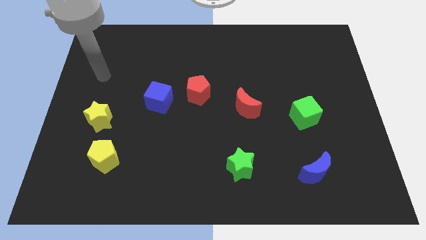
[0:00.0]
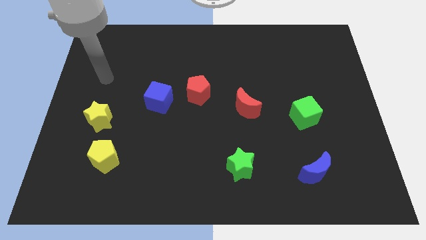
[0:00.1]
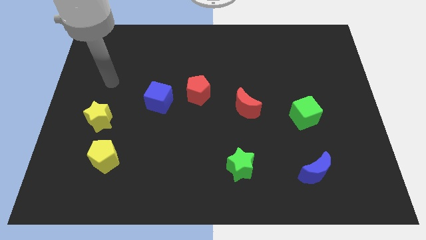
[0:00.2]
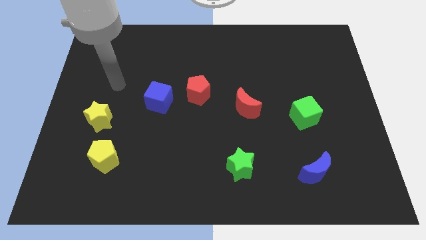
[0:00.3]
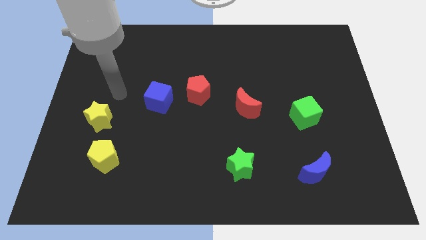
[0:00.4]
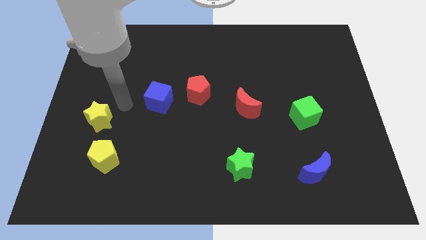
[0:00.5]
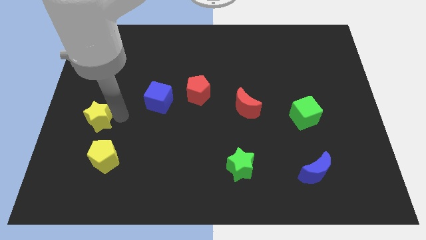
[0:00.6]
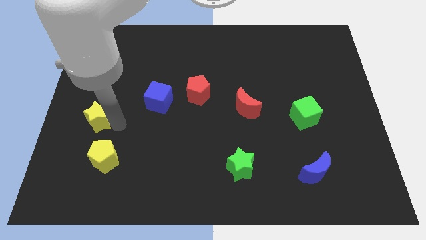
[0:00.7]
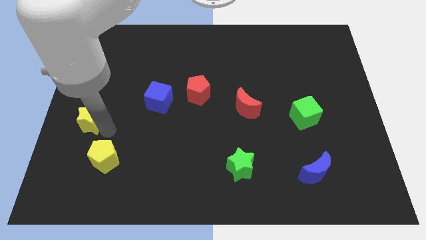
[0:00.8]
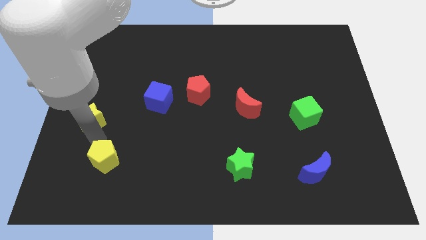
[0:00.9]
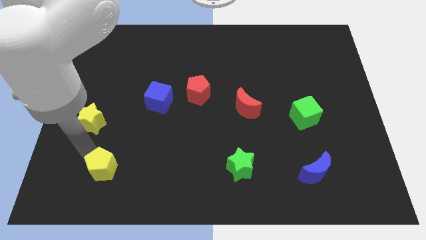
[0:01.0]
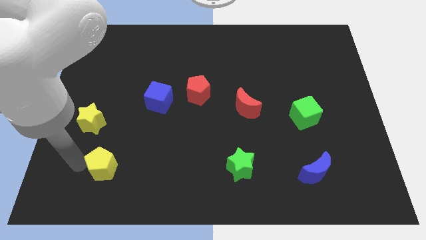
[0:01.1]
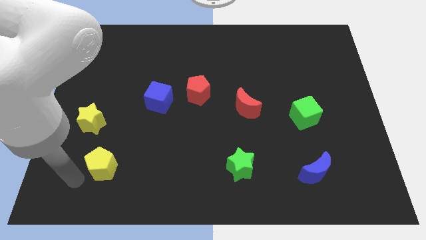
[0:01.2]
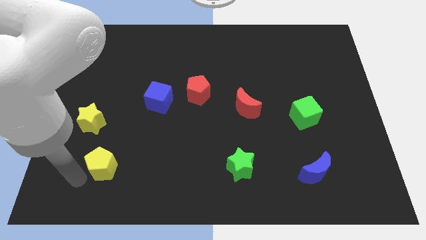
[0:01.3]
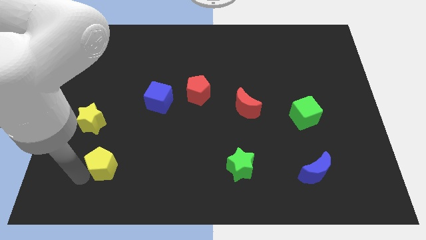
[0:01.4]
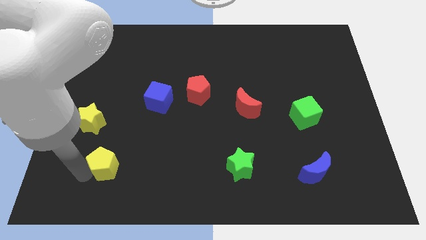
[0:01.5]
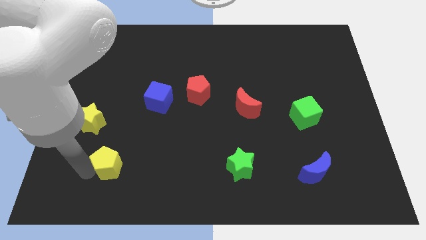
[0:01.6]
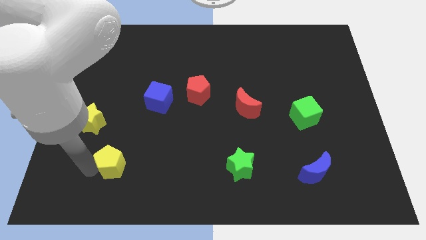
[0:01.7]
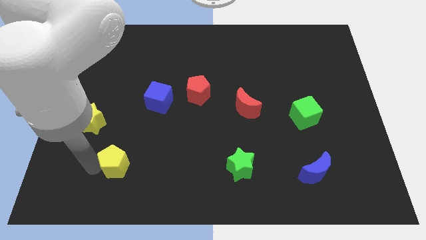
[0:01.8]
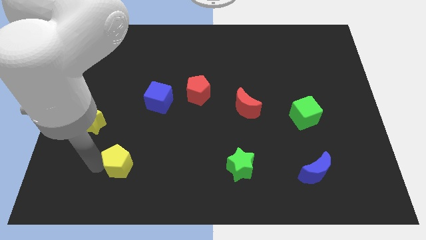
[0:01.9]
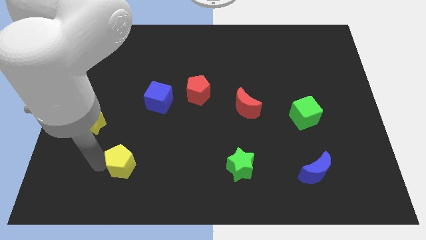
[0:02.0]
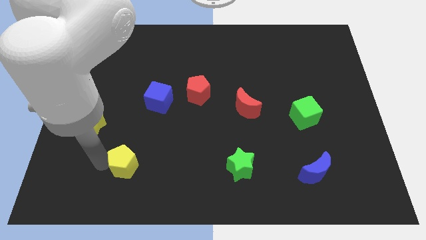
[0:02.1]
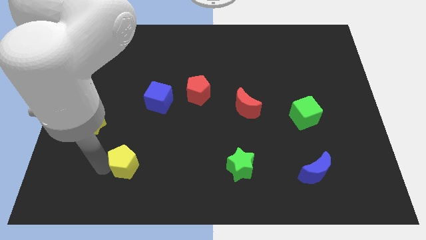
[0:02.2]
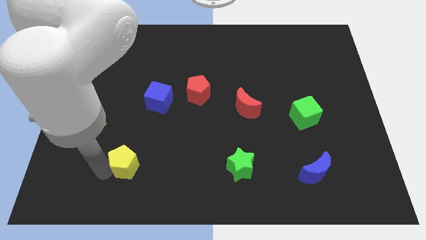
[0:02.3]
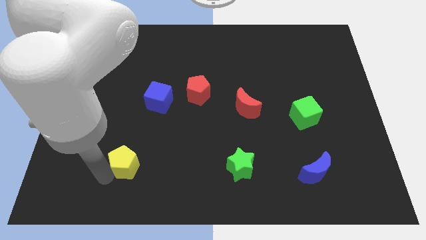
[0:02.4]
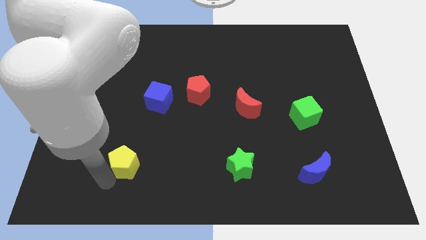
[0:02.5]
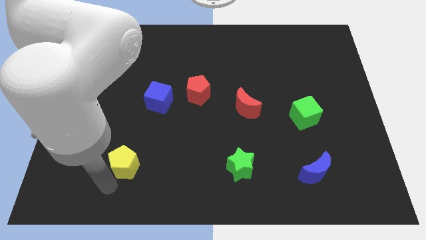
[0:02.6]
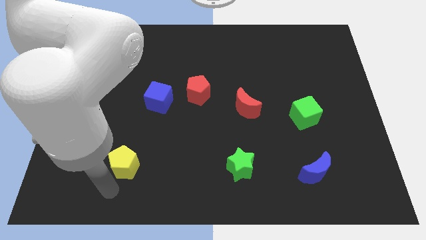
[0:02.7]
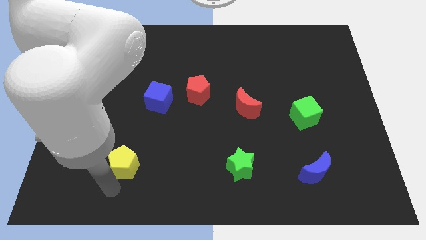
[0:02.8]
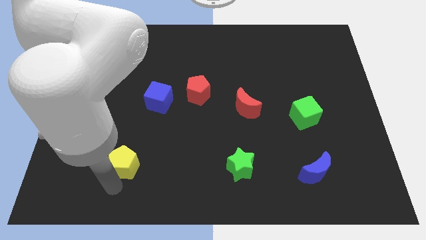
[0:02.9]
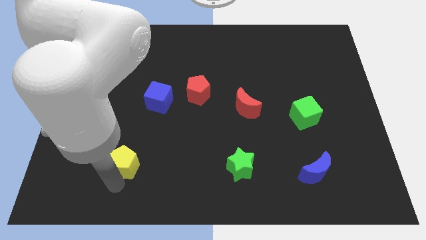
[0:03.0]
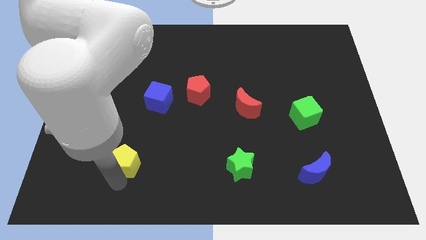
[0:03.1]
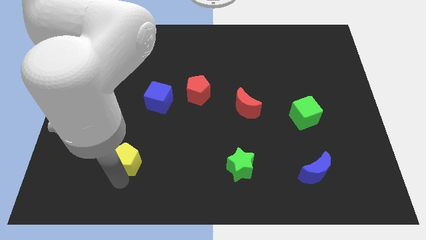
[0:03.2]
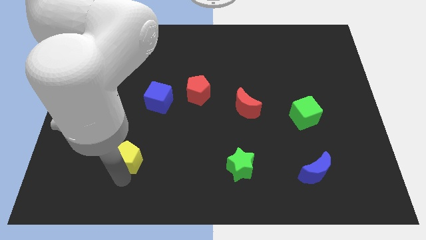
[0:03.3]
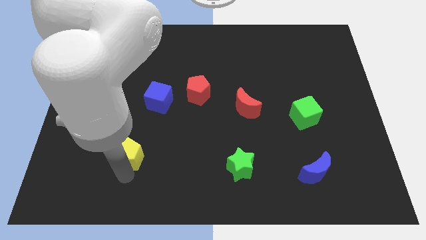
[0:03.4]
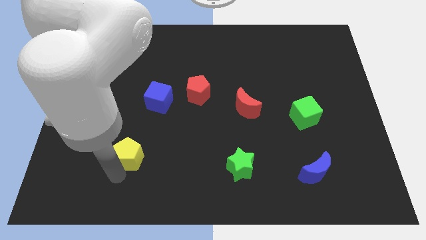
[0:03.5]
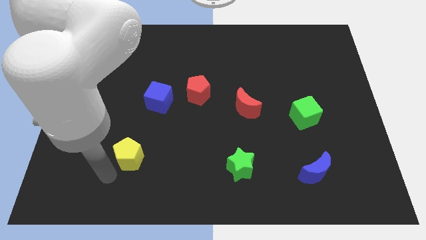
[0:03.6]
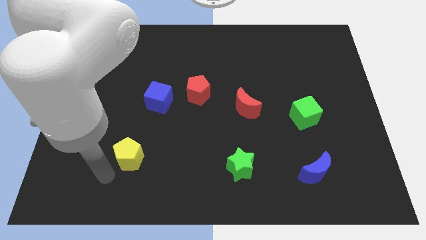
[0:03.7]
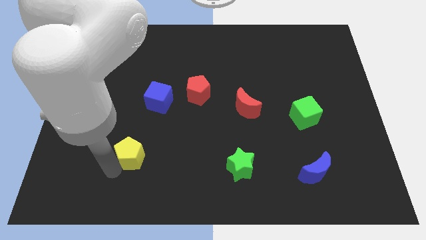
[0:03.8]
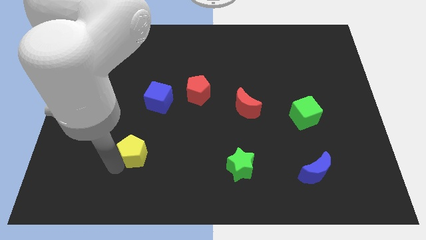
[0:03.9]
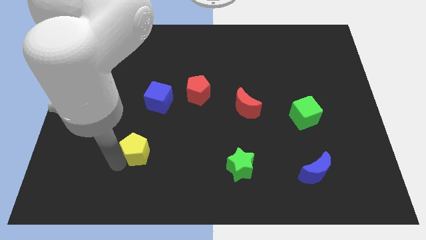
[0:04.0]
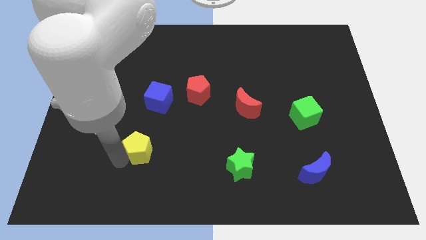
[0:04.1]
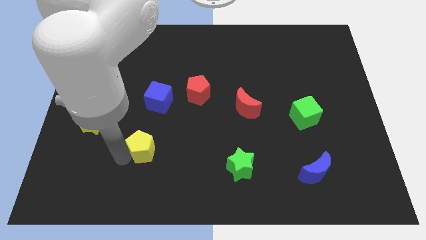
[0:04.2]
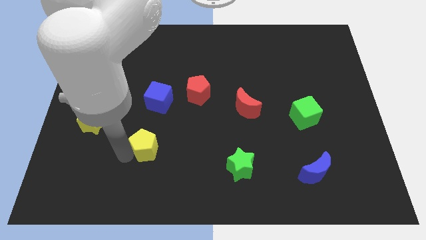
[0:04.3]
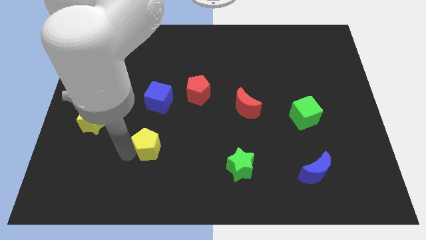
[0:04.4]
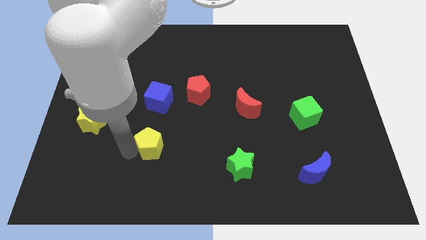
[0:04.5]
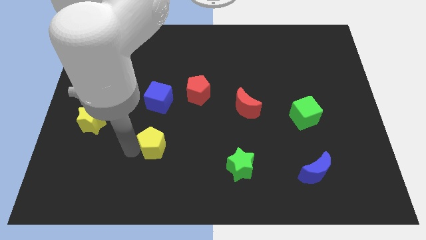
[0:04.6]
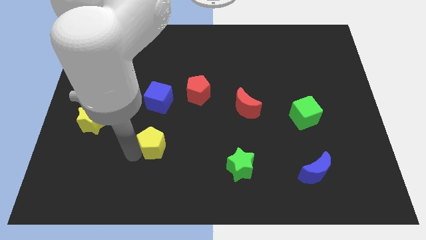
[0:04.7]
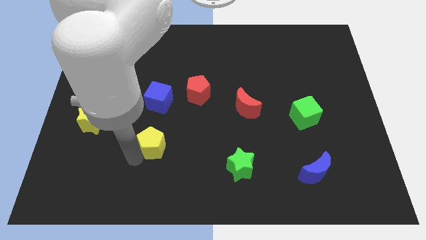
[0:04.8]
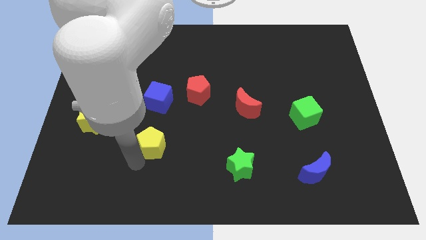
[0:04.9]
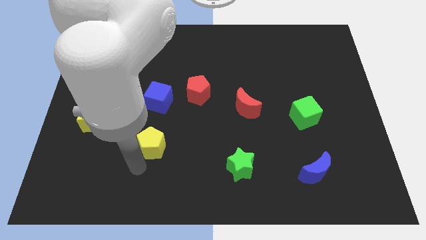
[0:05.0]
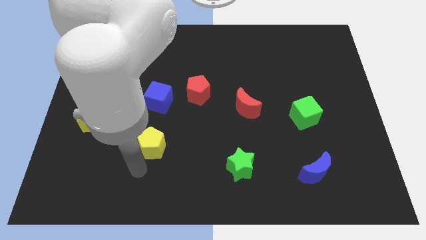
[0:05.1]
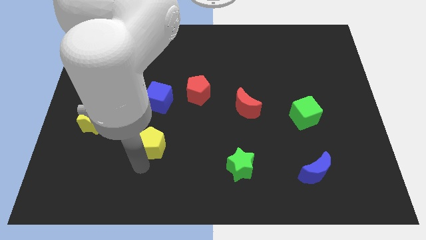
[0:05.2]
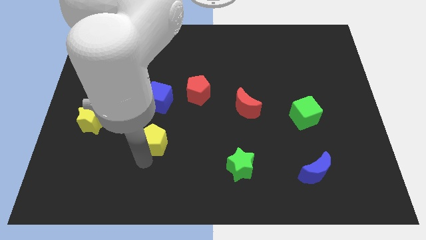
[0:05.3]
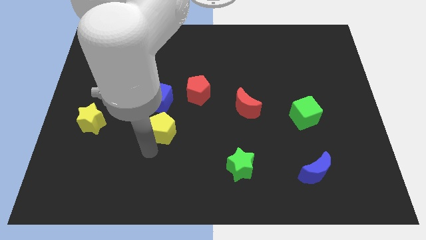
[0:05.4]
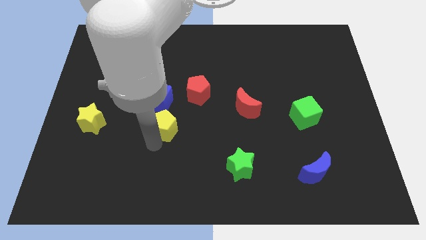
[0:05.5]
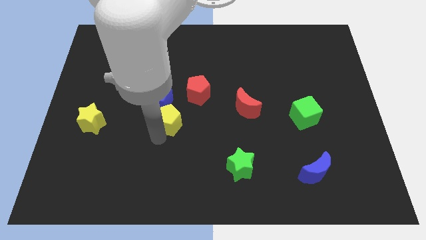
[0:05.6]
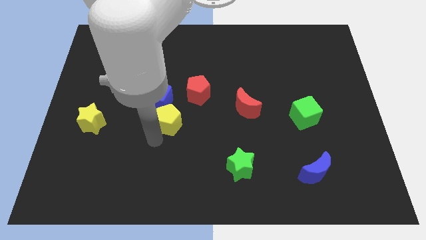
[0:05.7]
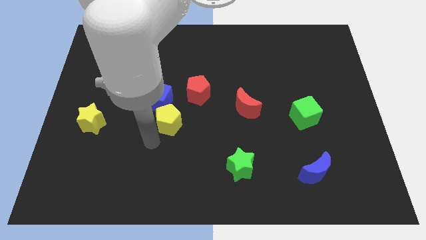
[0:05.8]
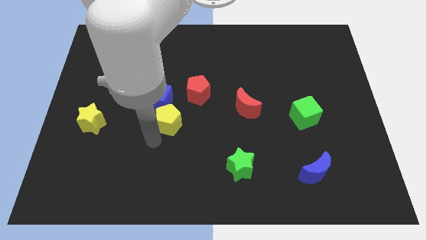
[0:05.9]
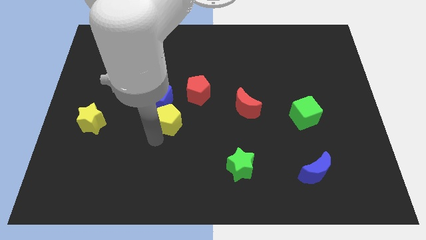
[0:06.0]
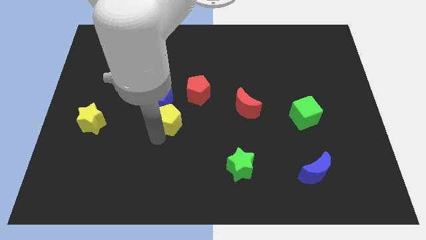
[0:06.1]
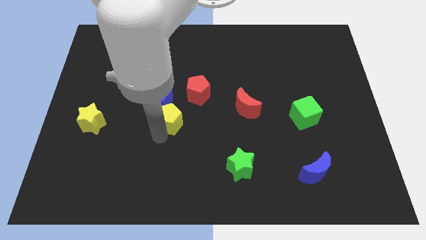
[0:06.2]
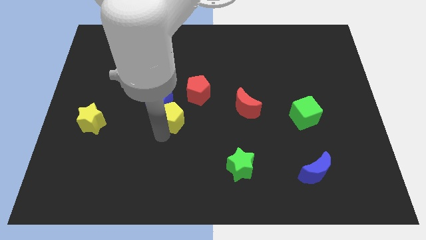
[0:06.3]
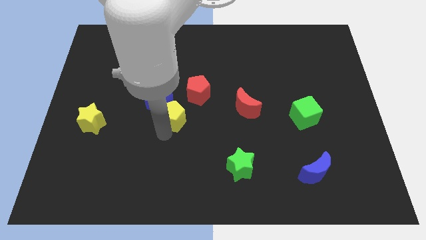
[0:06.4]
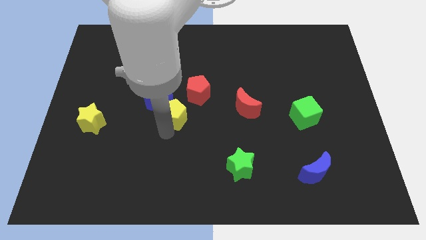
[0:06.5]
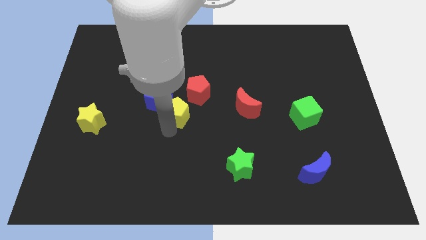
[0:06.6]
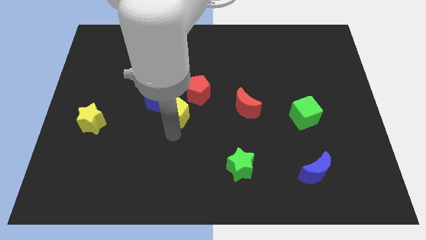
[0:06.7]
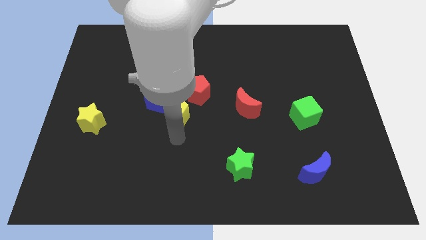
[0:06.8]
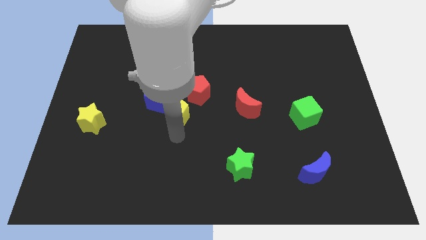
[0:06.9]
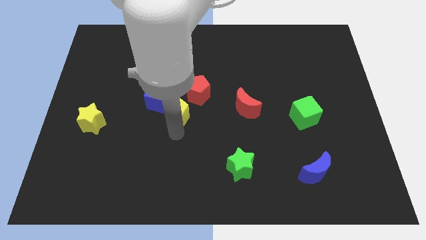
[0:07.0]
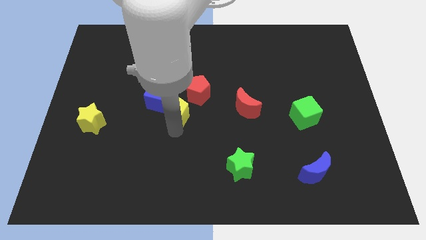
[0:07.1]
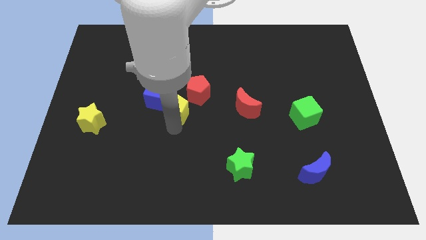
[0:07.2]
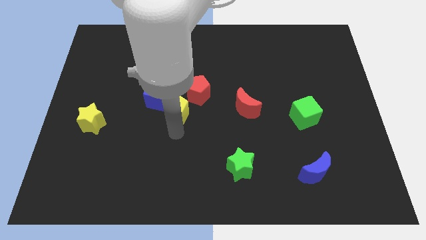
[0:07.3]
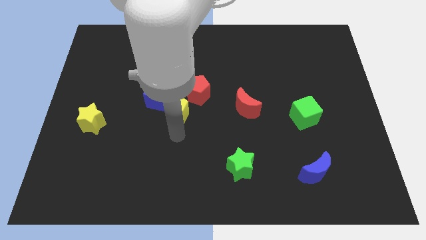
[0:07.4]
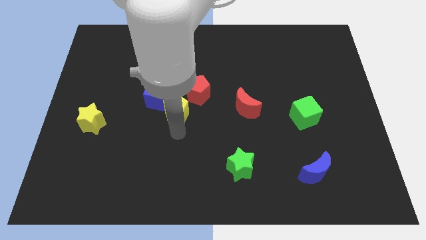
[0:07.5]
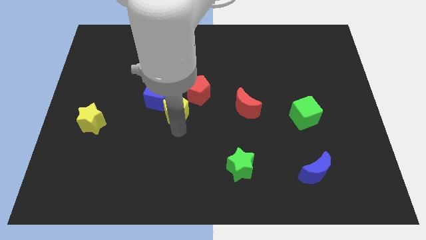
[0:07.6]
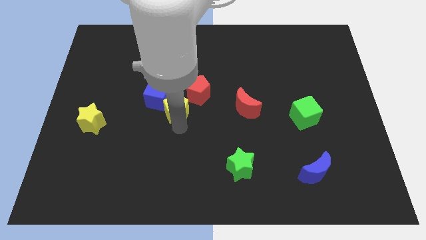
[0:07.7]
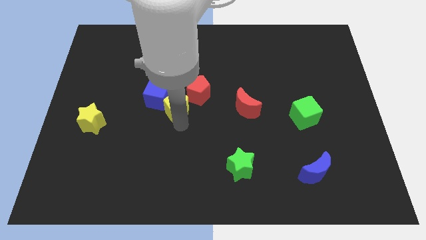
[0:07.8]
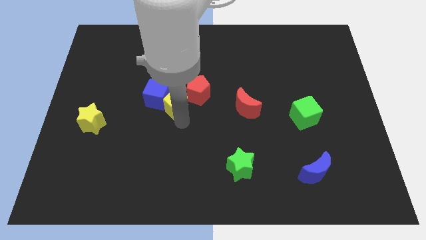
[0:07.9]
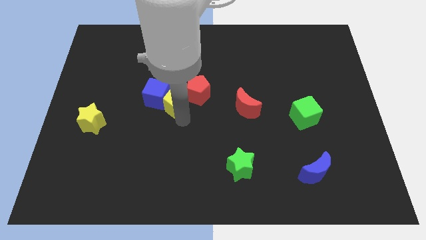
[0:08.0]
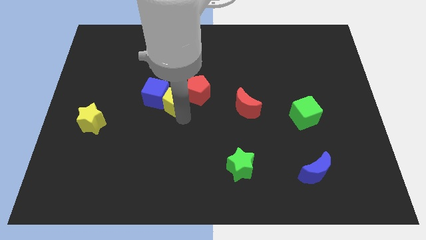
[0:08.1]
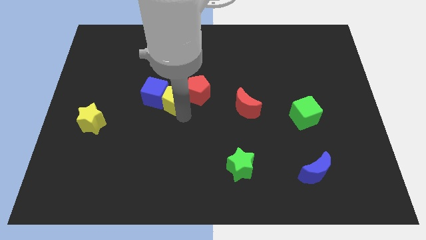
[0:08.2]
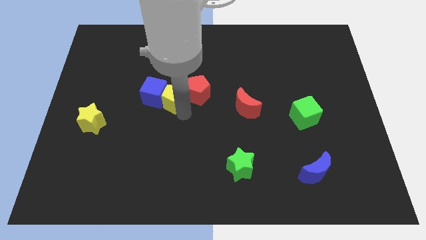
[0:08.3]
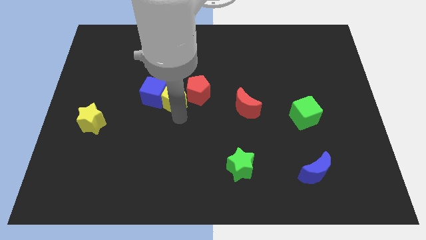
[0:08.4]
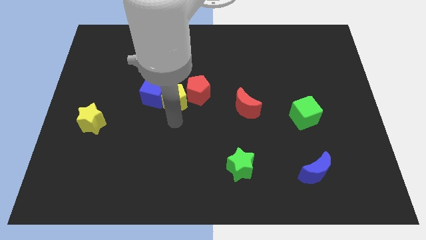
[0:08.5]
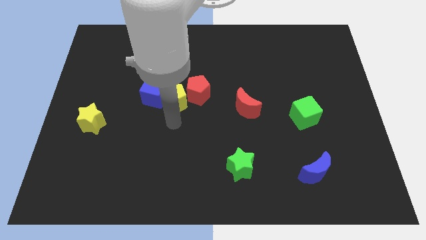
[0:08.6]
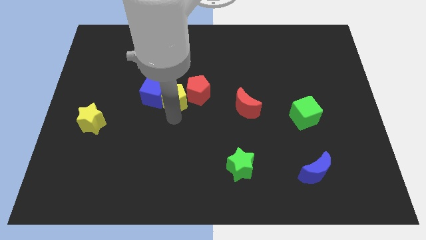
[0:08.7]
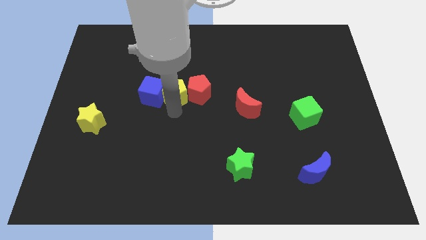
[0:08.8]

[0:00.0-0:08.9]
move the yellow pentagon diagonally up and to the left of the red pentagon
